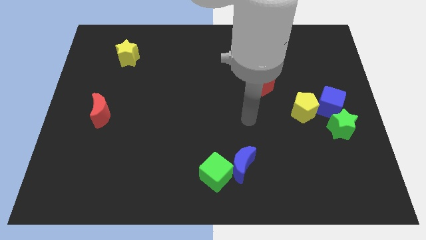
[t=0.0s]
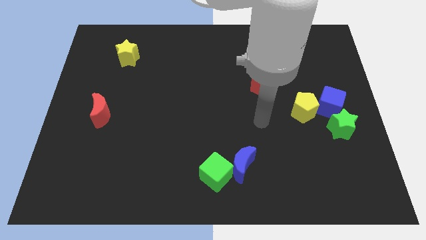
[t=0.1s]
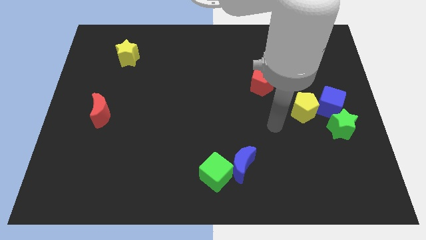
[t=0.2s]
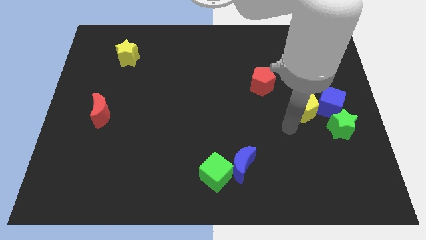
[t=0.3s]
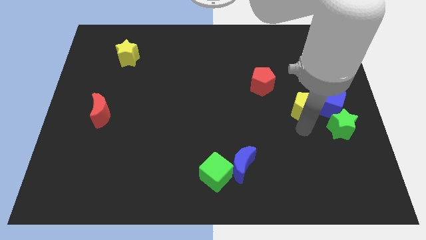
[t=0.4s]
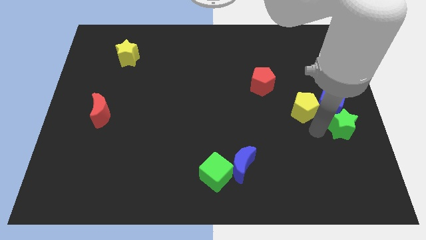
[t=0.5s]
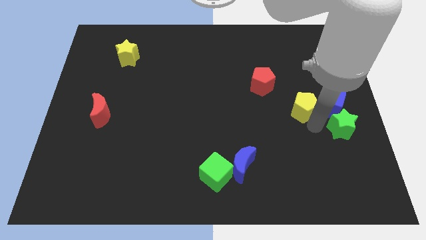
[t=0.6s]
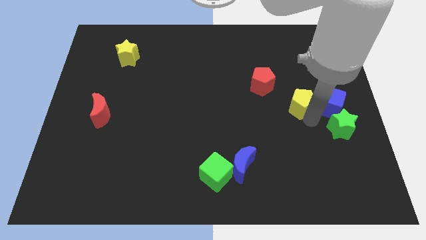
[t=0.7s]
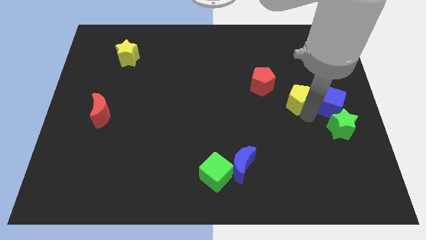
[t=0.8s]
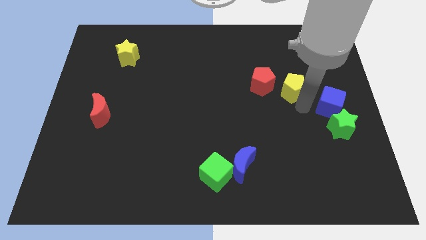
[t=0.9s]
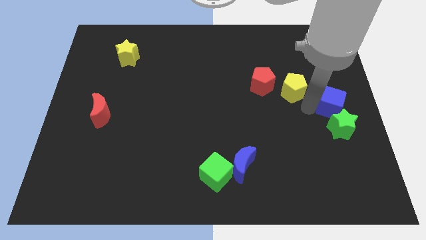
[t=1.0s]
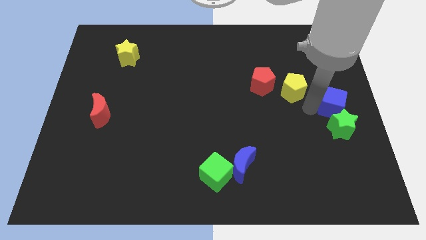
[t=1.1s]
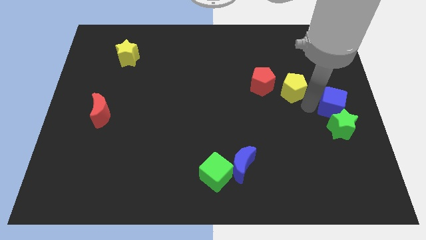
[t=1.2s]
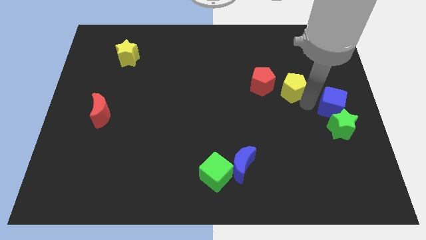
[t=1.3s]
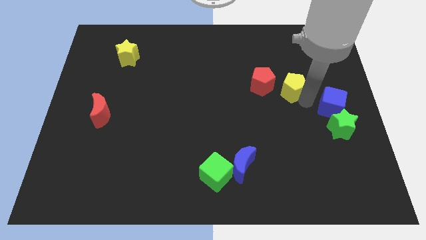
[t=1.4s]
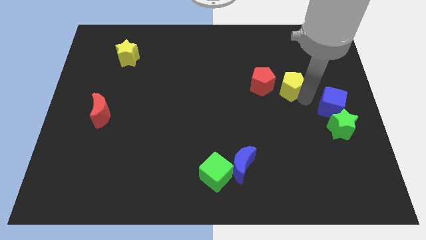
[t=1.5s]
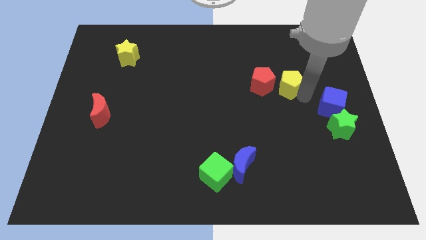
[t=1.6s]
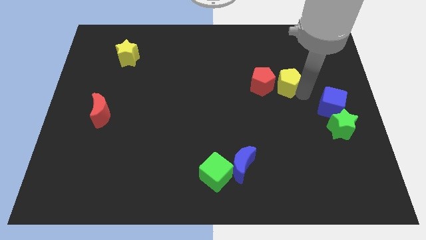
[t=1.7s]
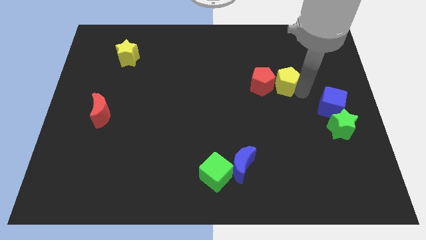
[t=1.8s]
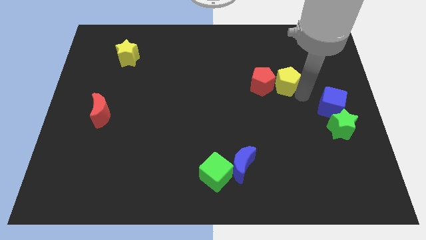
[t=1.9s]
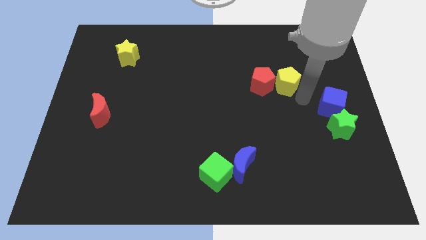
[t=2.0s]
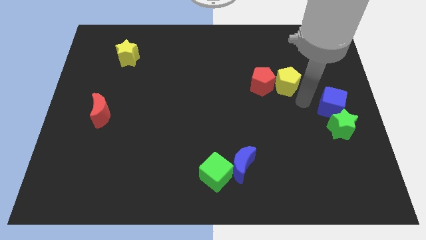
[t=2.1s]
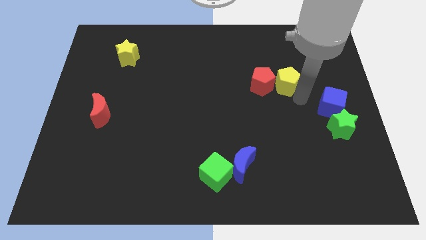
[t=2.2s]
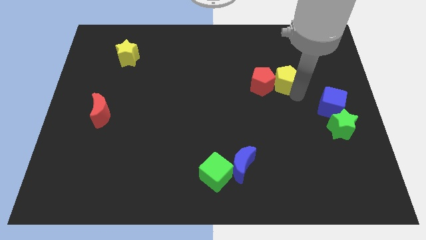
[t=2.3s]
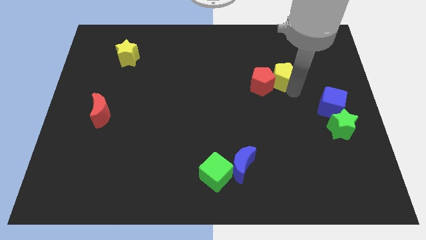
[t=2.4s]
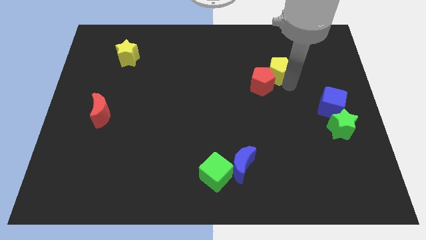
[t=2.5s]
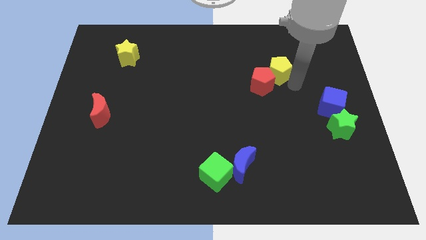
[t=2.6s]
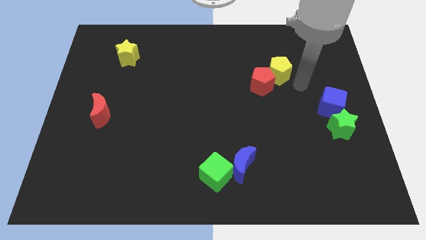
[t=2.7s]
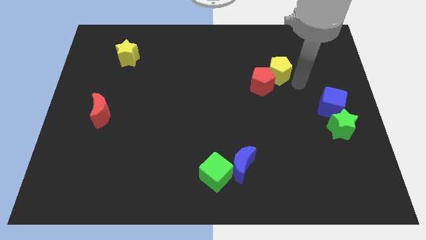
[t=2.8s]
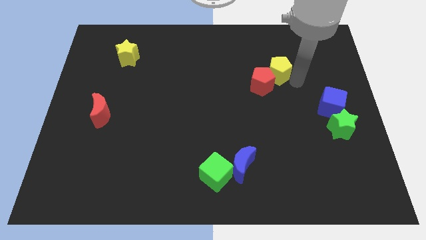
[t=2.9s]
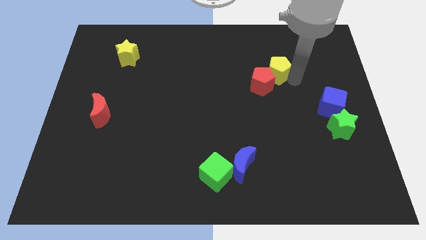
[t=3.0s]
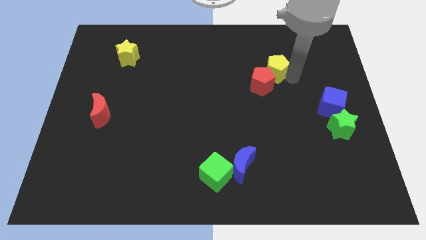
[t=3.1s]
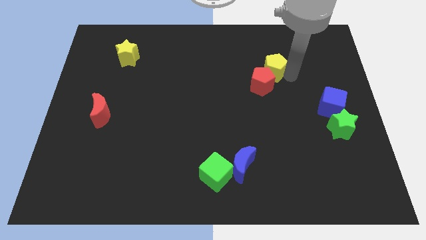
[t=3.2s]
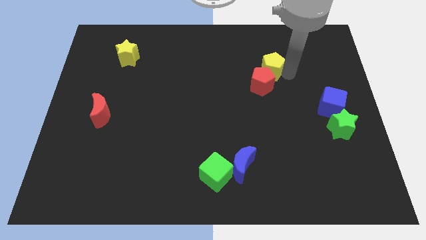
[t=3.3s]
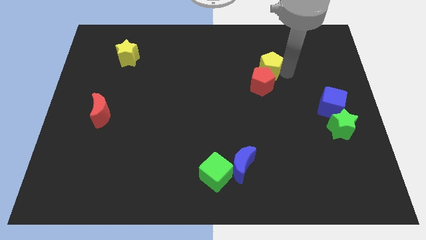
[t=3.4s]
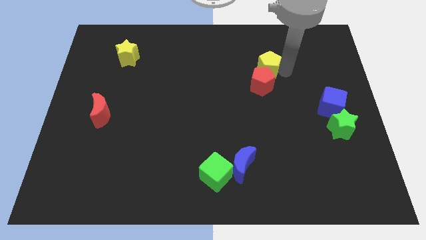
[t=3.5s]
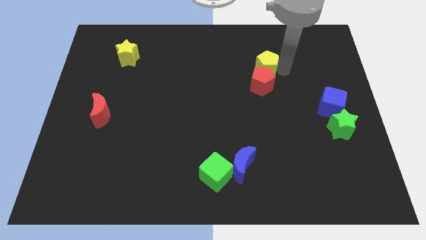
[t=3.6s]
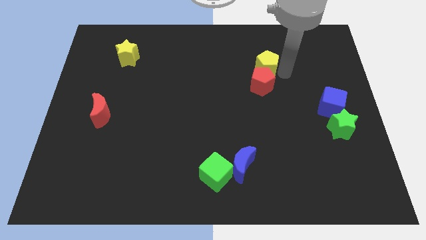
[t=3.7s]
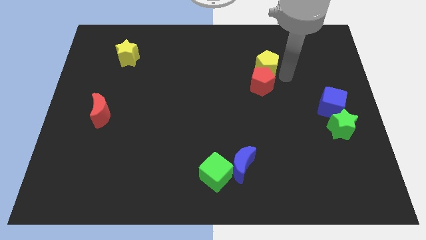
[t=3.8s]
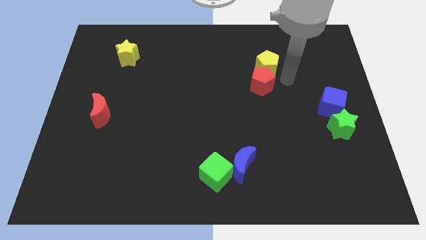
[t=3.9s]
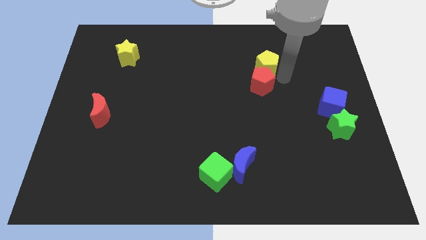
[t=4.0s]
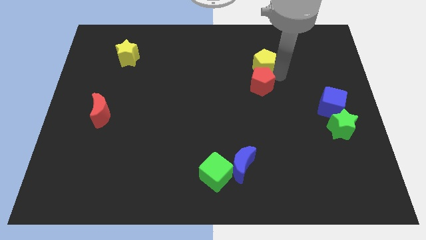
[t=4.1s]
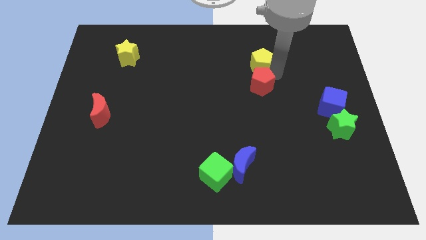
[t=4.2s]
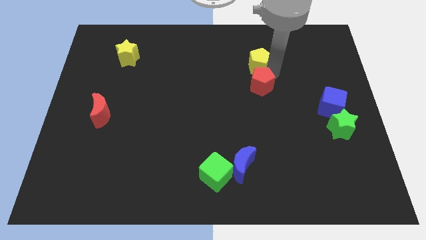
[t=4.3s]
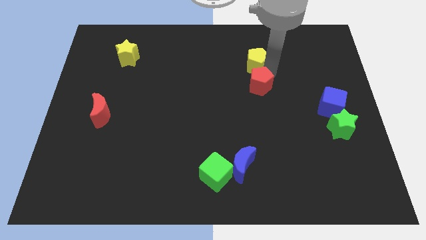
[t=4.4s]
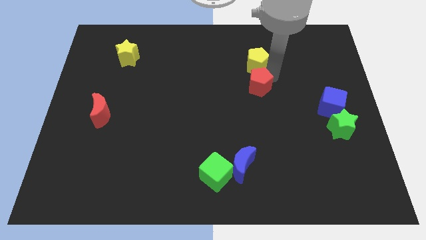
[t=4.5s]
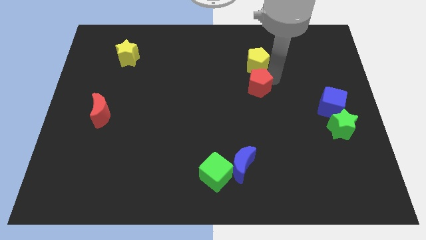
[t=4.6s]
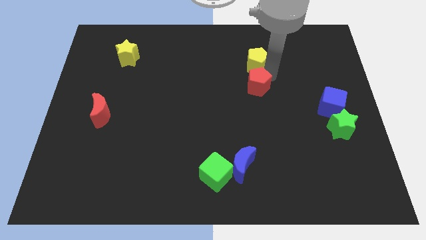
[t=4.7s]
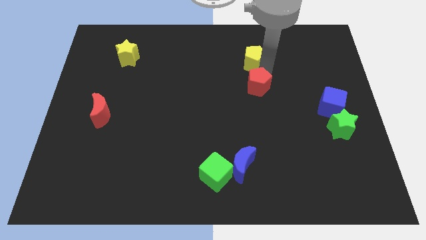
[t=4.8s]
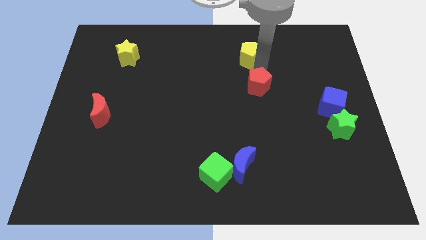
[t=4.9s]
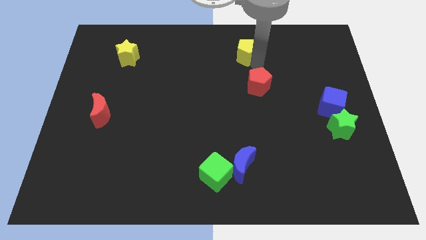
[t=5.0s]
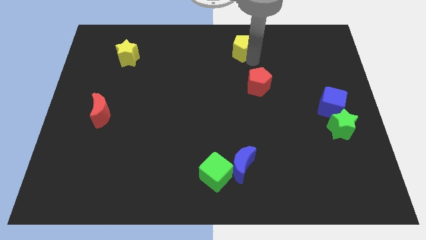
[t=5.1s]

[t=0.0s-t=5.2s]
move the yellow pentagon to the top side
